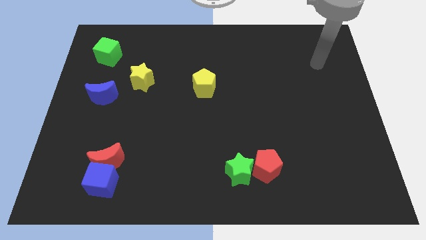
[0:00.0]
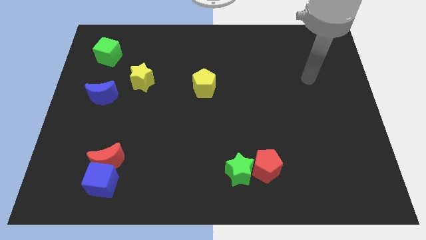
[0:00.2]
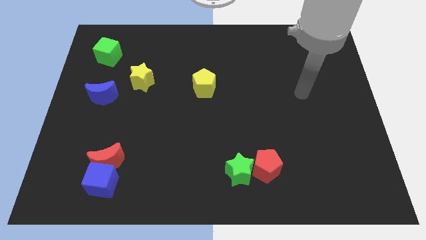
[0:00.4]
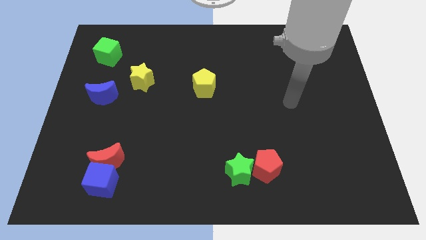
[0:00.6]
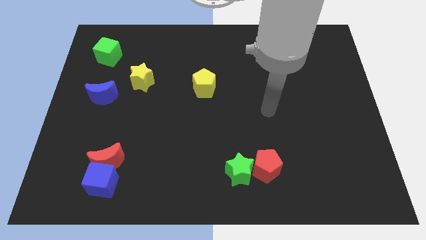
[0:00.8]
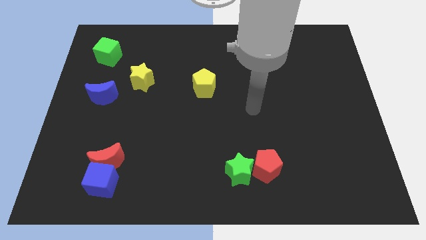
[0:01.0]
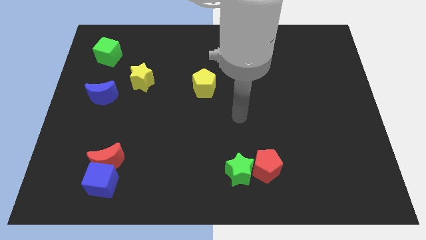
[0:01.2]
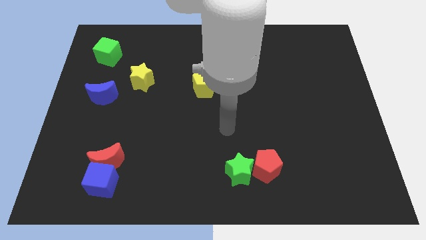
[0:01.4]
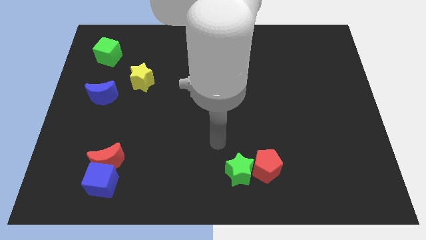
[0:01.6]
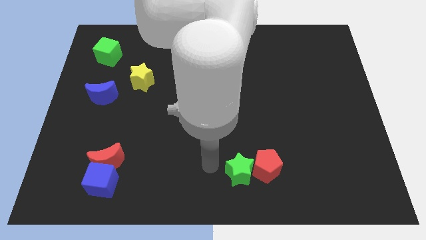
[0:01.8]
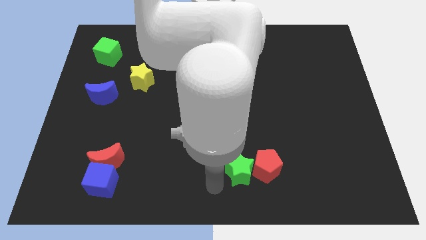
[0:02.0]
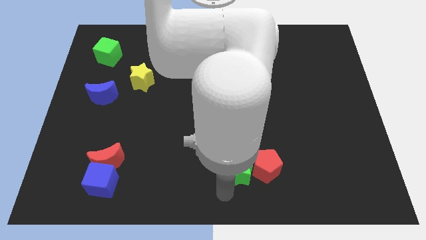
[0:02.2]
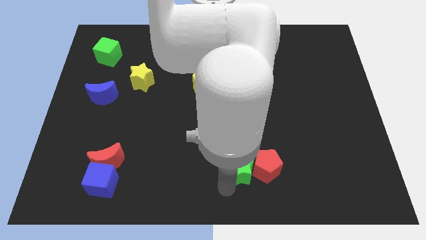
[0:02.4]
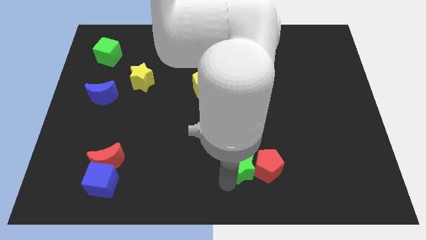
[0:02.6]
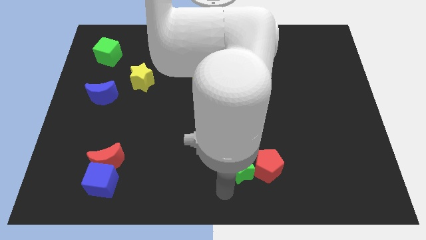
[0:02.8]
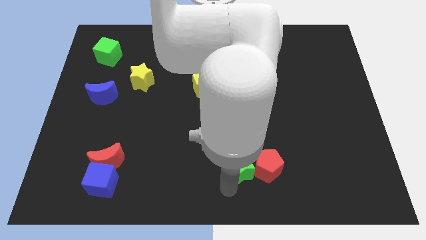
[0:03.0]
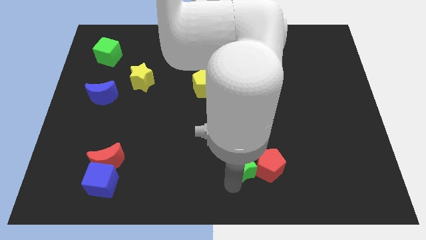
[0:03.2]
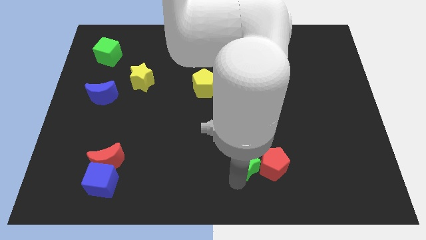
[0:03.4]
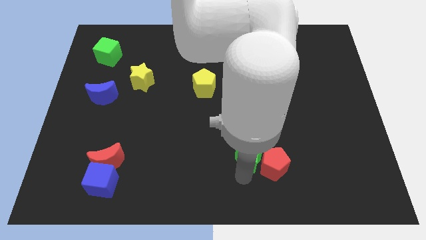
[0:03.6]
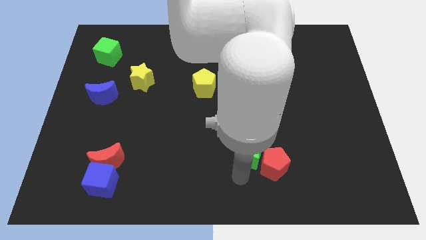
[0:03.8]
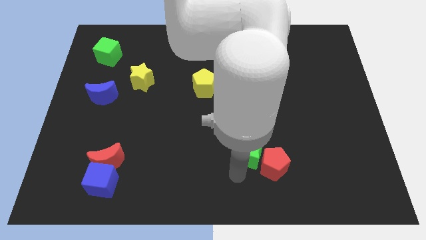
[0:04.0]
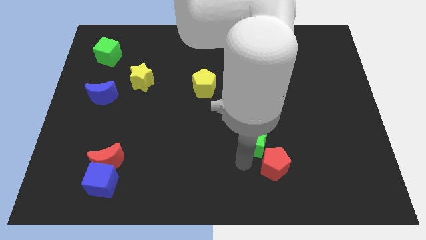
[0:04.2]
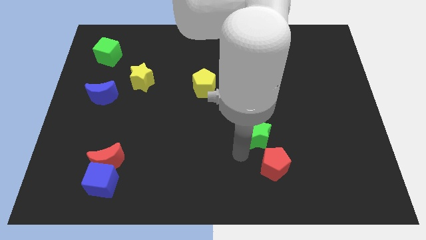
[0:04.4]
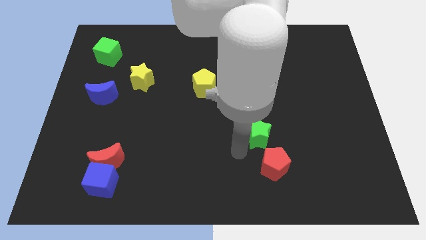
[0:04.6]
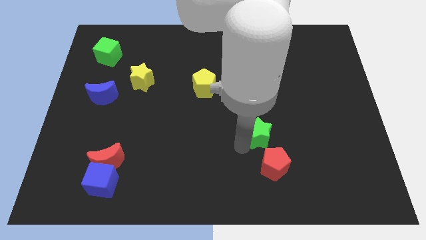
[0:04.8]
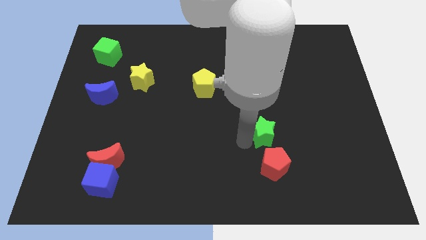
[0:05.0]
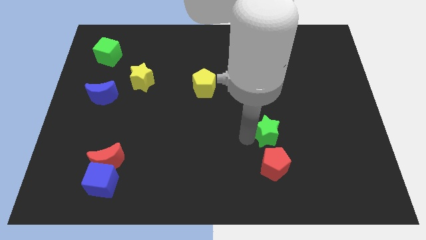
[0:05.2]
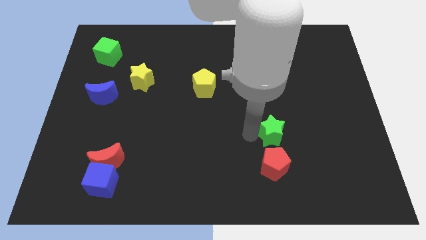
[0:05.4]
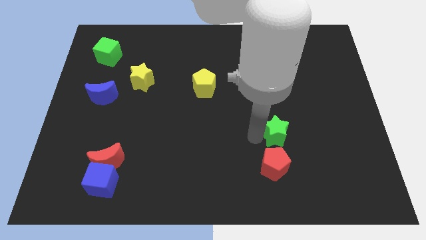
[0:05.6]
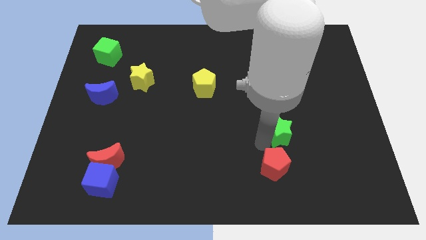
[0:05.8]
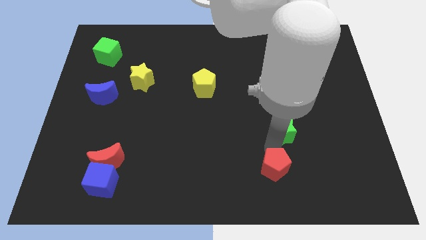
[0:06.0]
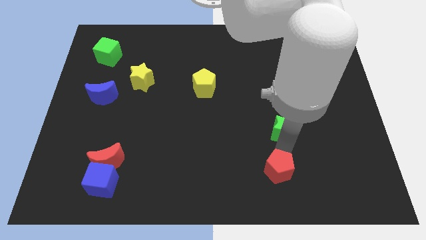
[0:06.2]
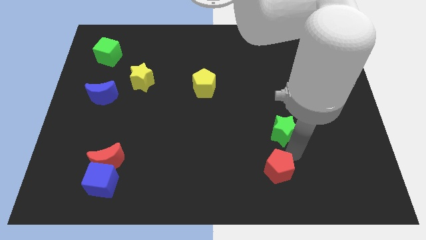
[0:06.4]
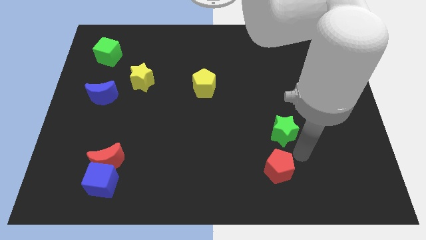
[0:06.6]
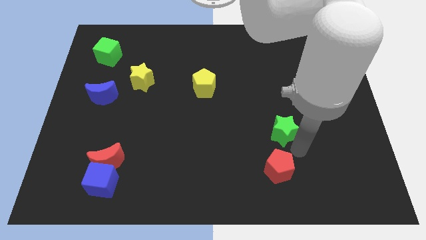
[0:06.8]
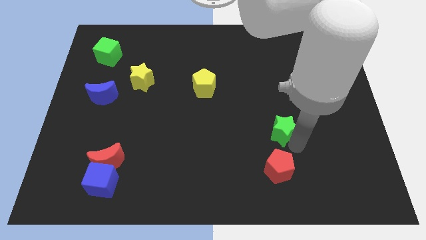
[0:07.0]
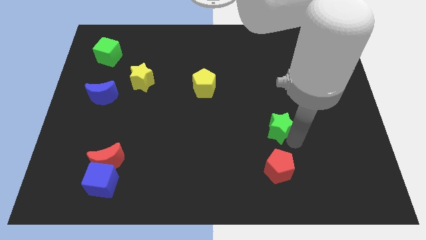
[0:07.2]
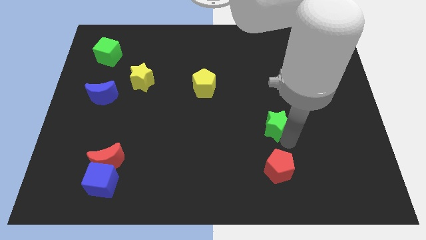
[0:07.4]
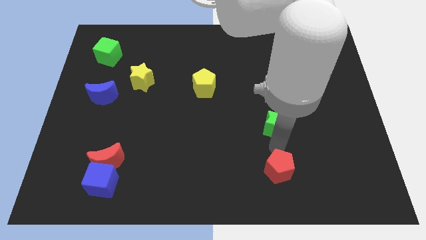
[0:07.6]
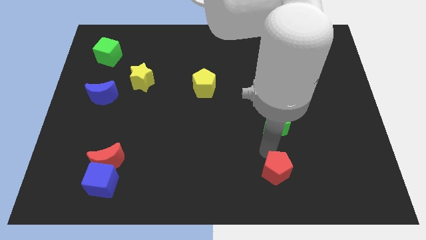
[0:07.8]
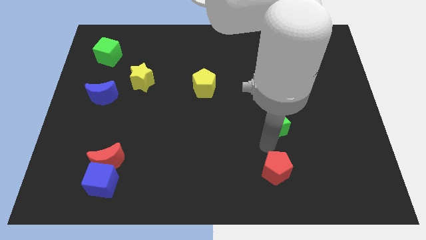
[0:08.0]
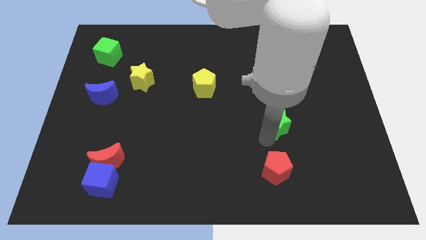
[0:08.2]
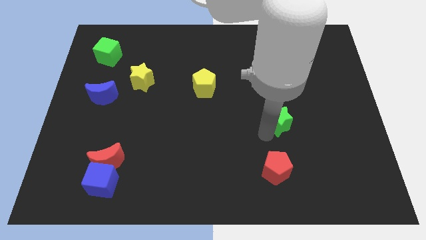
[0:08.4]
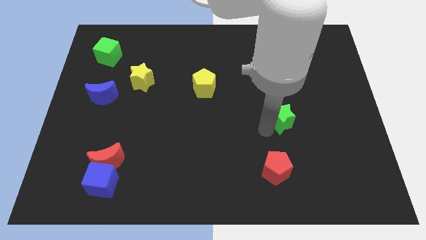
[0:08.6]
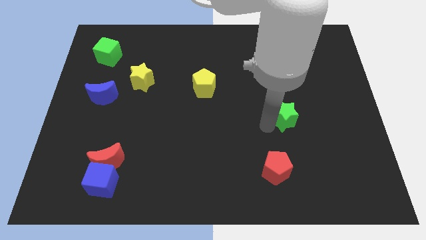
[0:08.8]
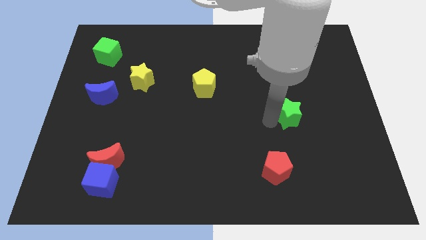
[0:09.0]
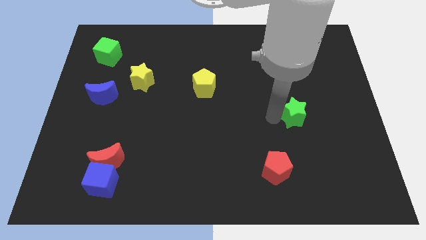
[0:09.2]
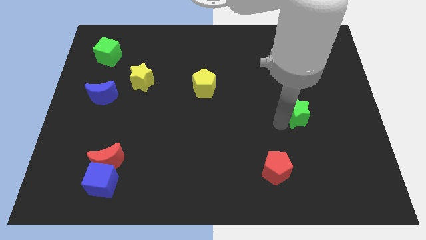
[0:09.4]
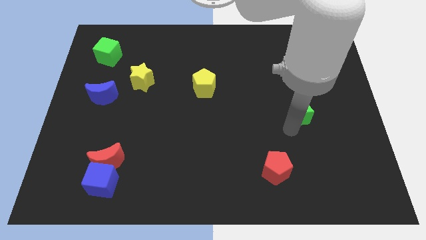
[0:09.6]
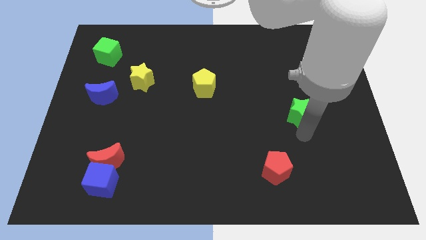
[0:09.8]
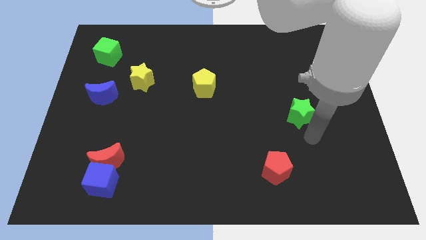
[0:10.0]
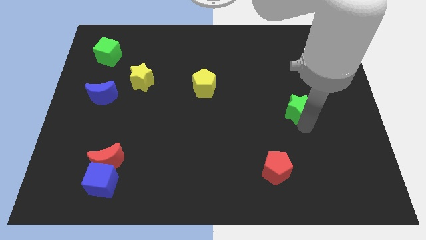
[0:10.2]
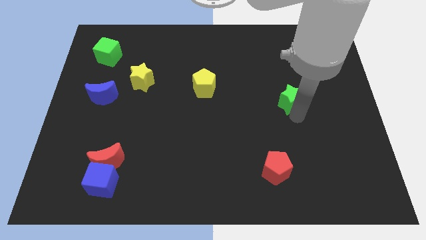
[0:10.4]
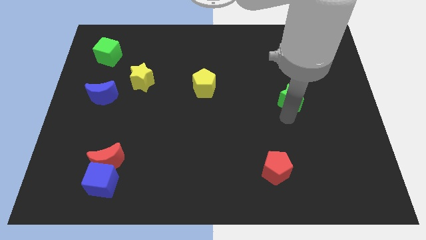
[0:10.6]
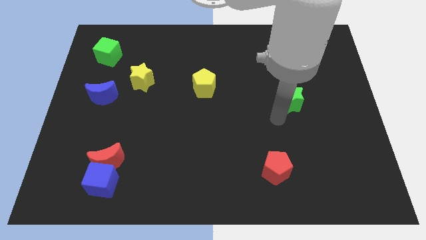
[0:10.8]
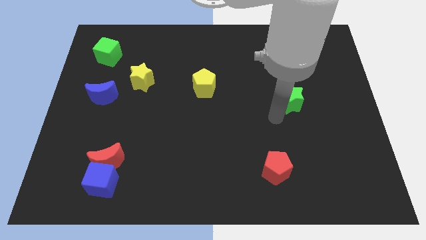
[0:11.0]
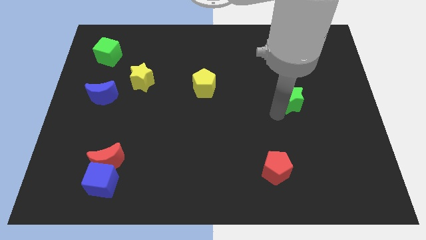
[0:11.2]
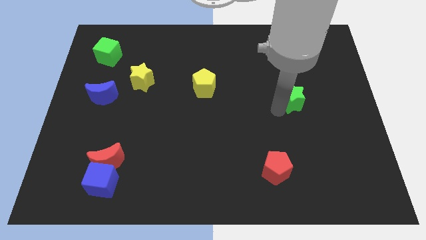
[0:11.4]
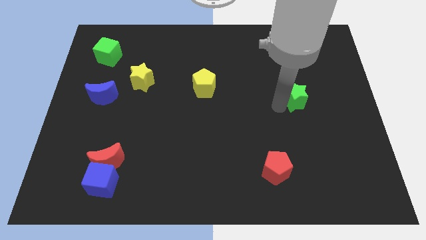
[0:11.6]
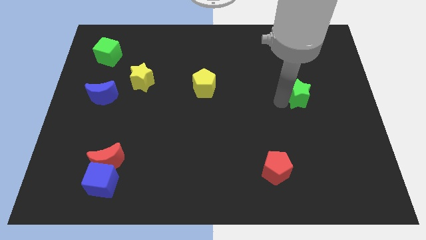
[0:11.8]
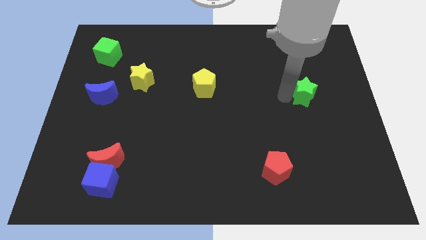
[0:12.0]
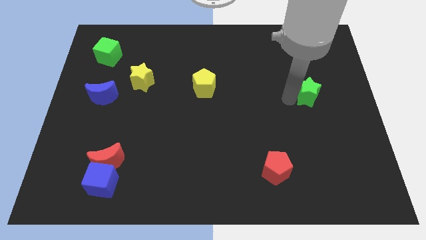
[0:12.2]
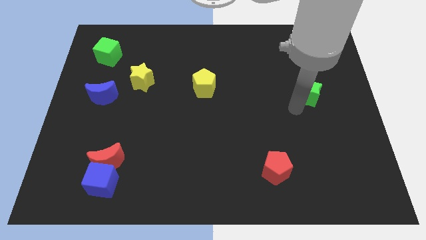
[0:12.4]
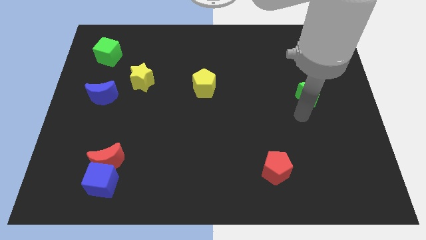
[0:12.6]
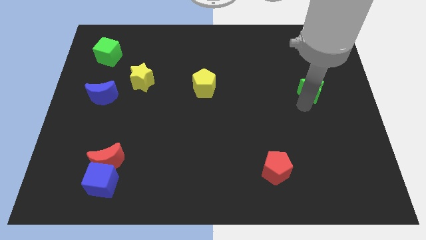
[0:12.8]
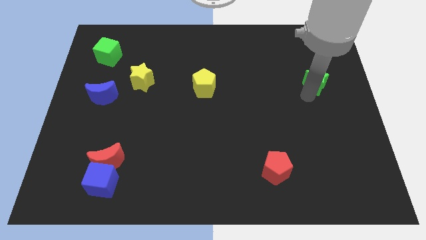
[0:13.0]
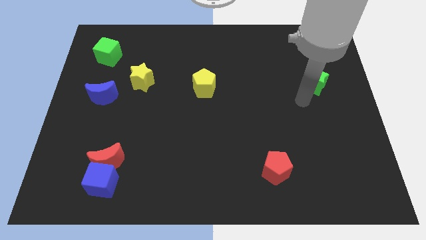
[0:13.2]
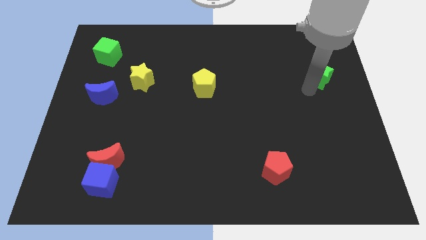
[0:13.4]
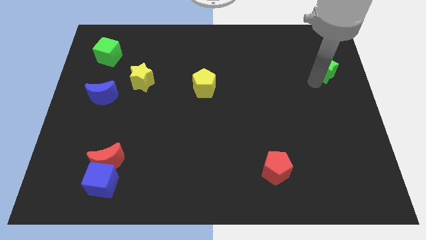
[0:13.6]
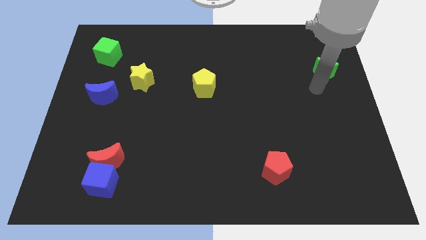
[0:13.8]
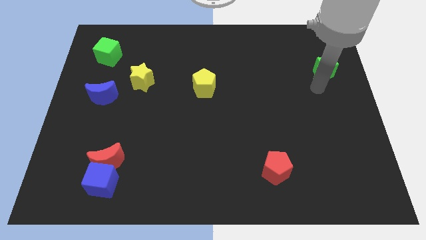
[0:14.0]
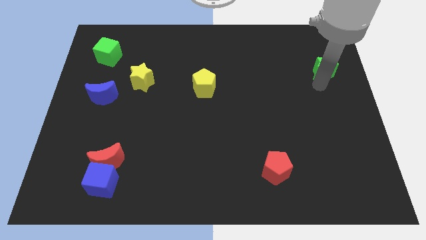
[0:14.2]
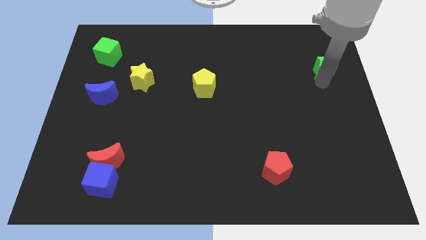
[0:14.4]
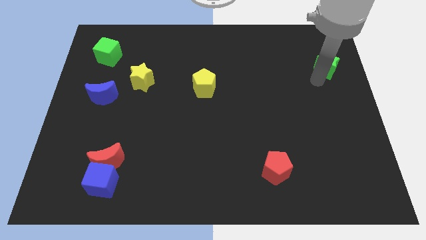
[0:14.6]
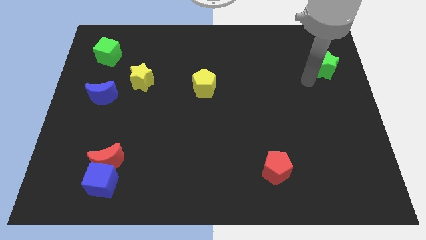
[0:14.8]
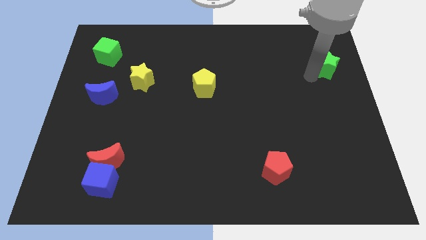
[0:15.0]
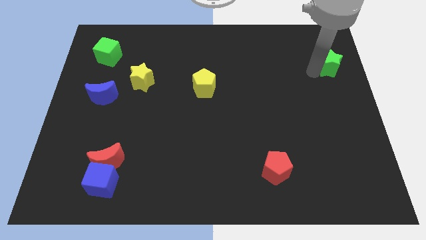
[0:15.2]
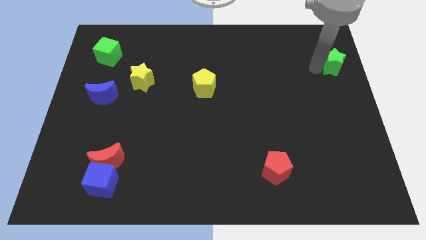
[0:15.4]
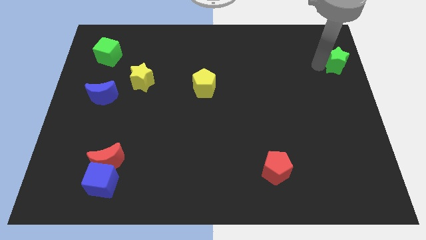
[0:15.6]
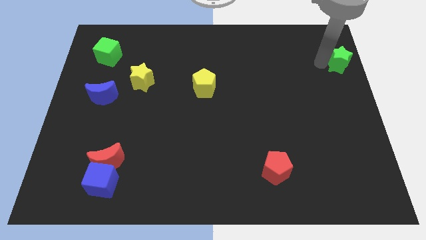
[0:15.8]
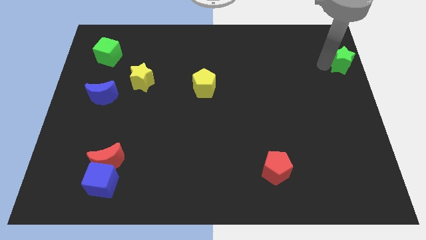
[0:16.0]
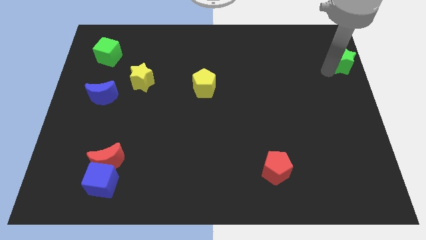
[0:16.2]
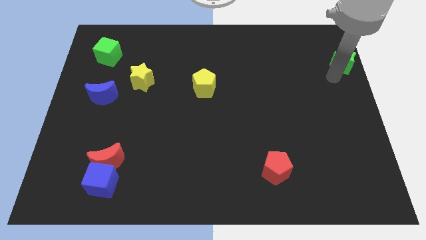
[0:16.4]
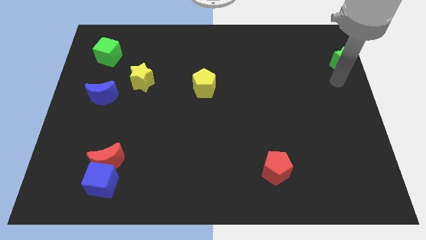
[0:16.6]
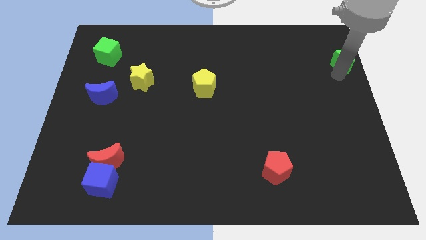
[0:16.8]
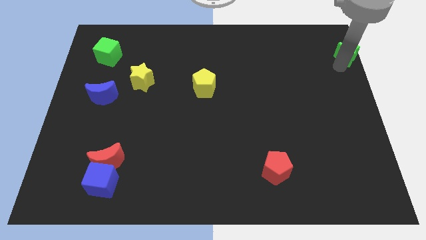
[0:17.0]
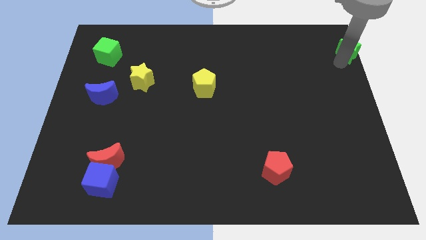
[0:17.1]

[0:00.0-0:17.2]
slide the green star to the top right corner
